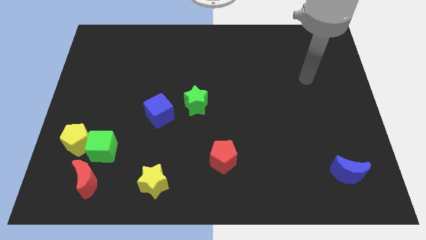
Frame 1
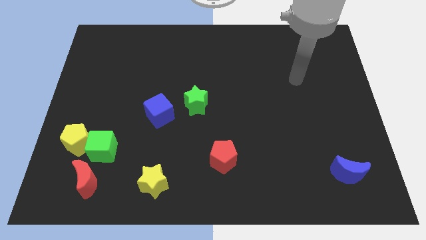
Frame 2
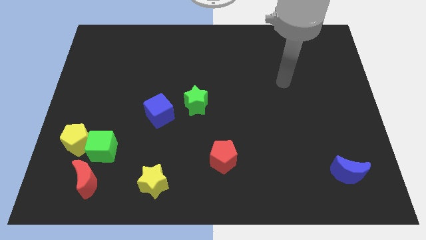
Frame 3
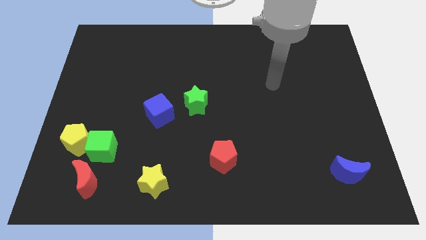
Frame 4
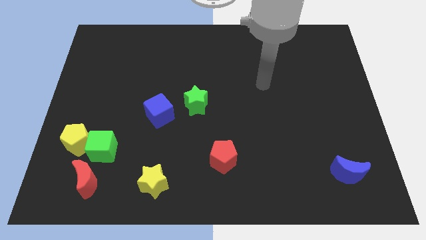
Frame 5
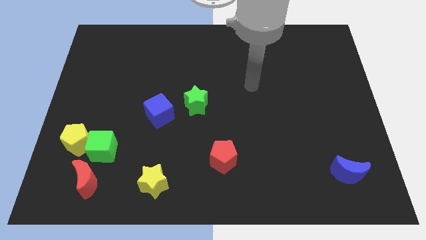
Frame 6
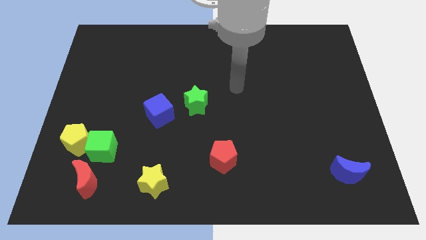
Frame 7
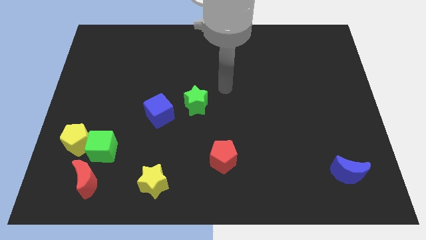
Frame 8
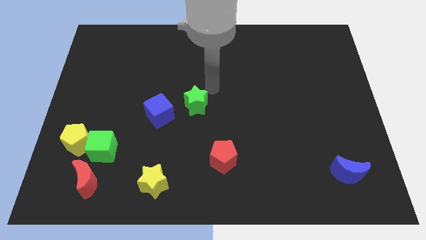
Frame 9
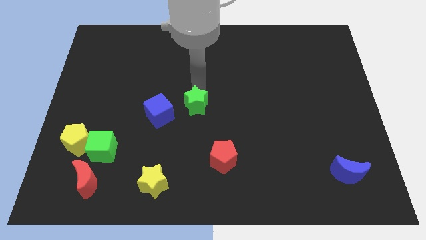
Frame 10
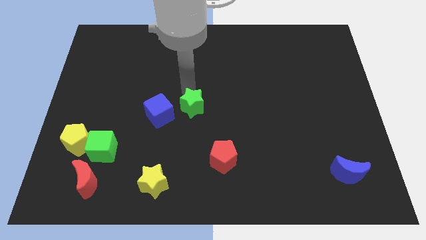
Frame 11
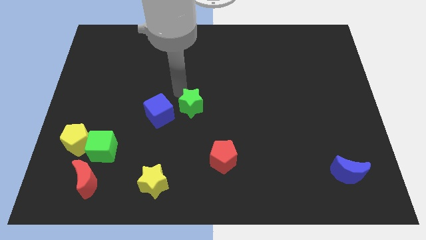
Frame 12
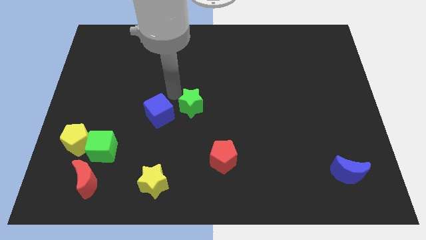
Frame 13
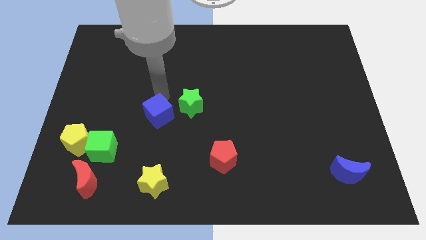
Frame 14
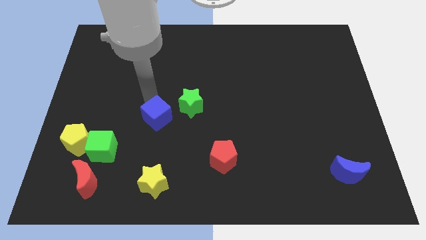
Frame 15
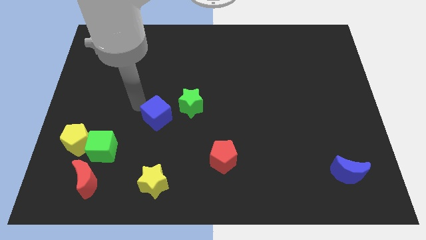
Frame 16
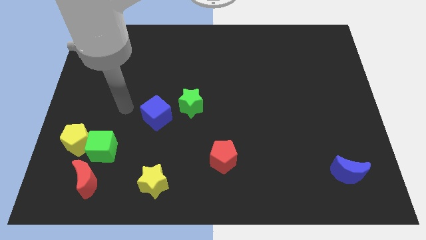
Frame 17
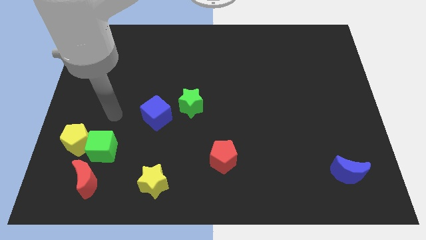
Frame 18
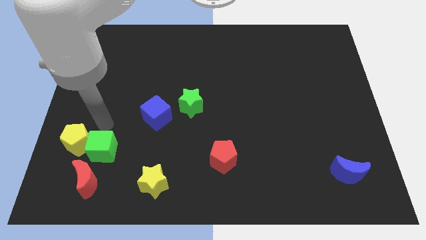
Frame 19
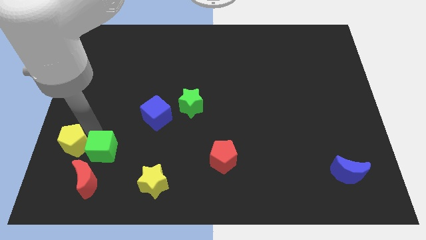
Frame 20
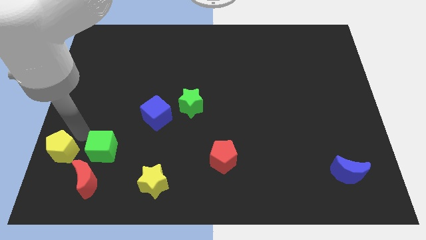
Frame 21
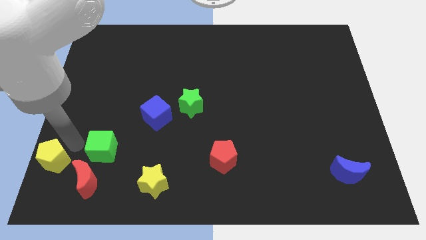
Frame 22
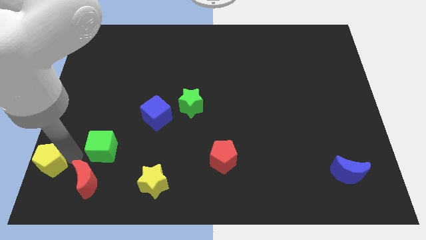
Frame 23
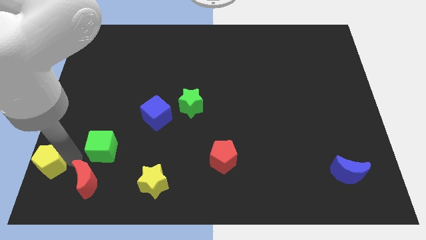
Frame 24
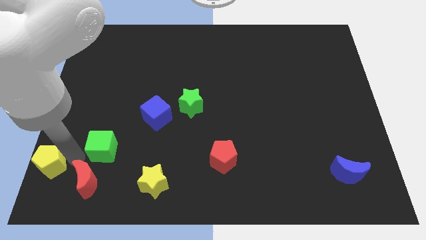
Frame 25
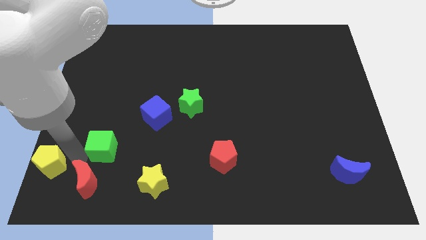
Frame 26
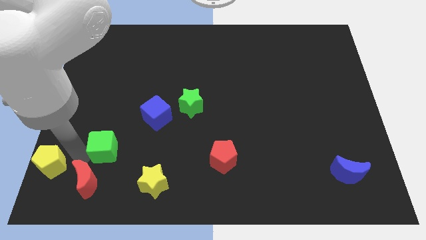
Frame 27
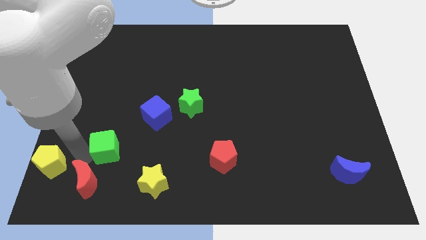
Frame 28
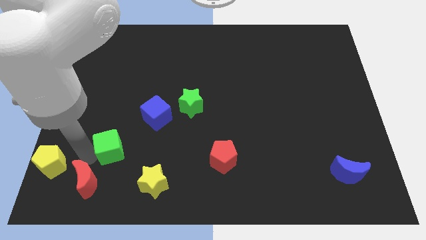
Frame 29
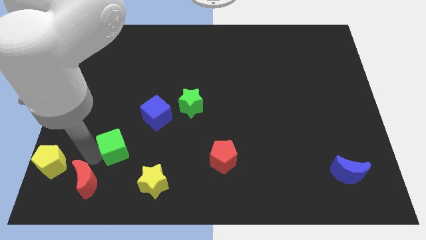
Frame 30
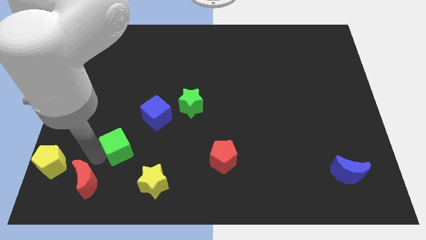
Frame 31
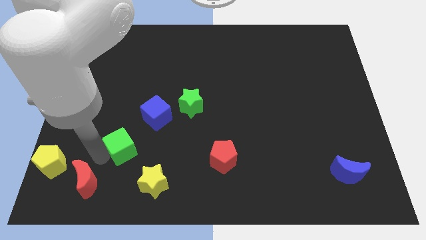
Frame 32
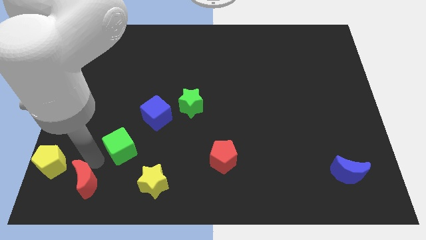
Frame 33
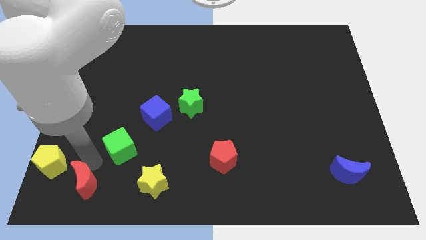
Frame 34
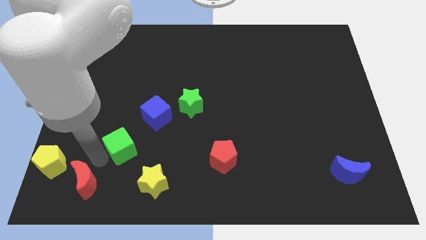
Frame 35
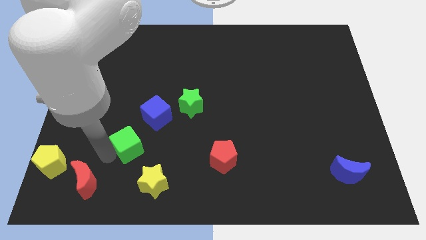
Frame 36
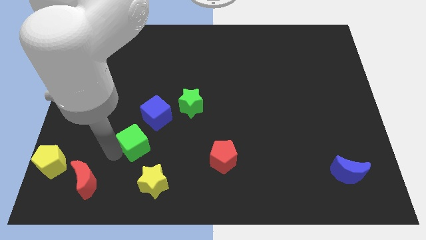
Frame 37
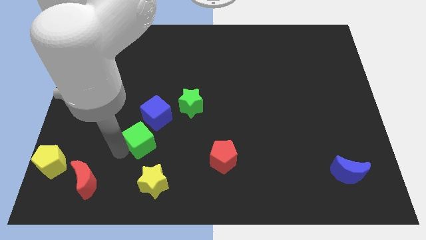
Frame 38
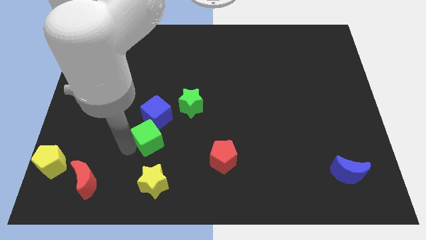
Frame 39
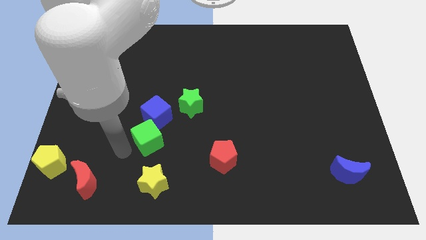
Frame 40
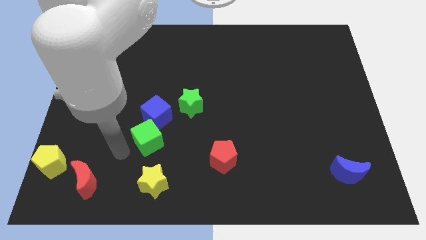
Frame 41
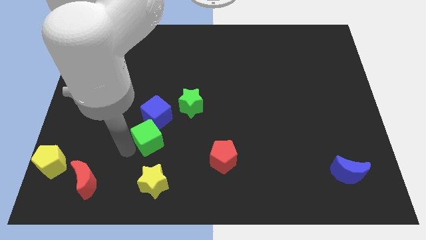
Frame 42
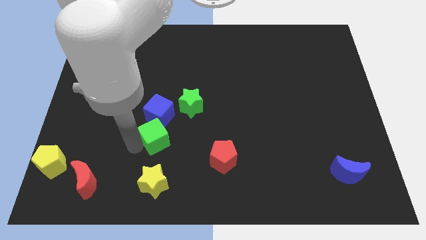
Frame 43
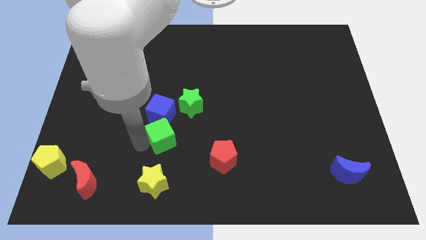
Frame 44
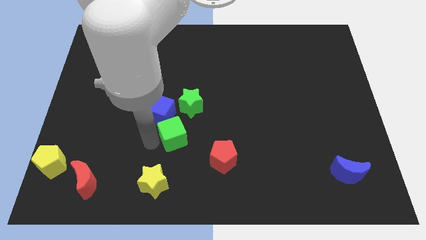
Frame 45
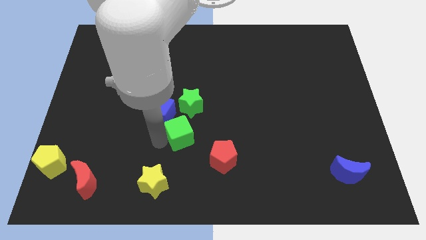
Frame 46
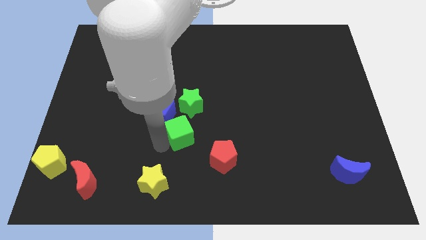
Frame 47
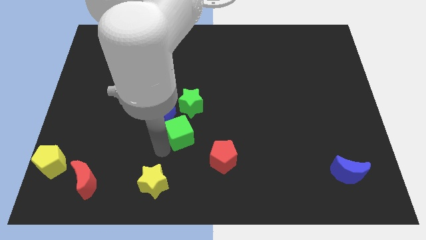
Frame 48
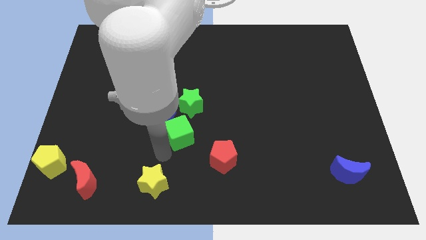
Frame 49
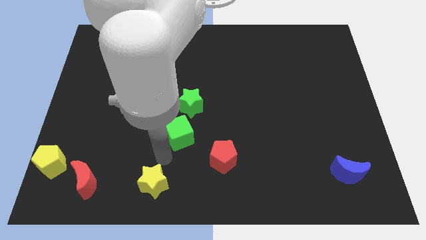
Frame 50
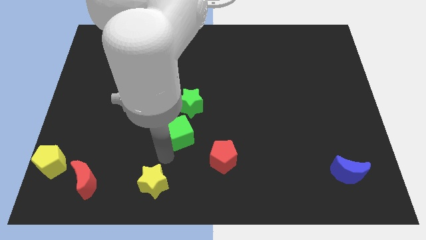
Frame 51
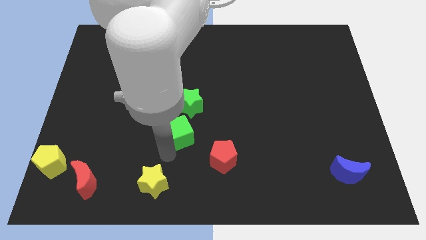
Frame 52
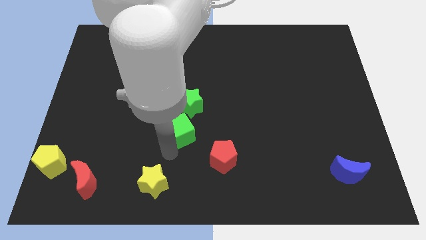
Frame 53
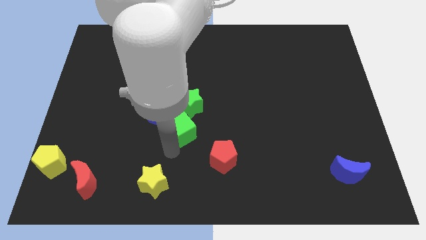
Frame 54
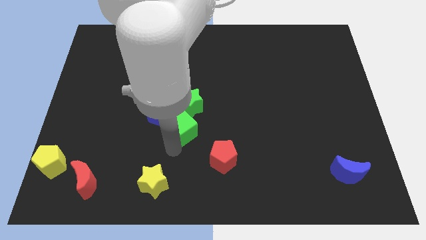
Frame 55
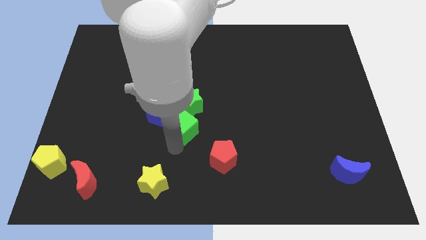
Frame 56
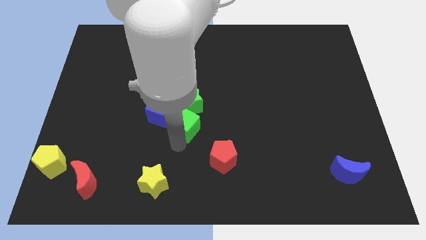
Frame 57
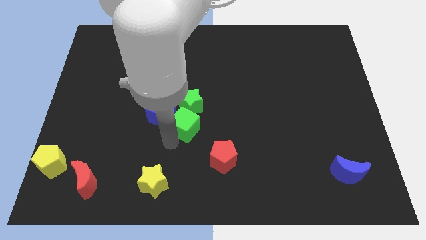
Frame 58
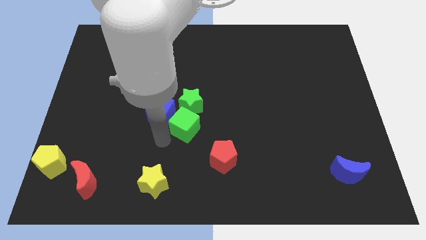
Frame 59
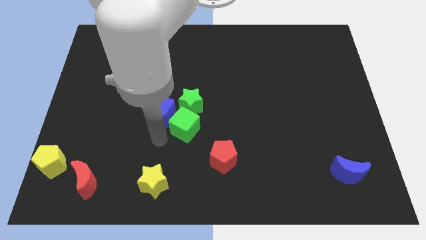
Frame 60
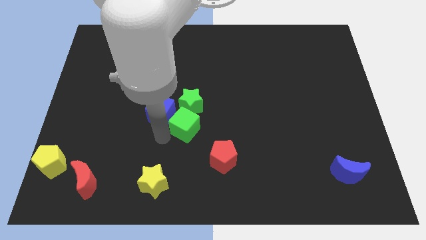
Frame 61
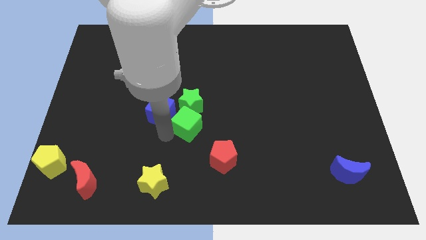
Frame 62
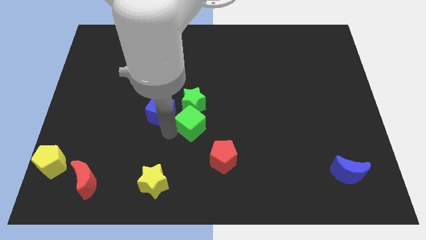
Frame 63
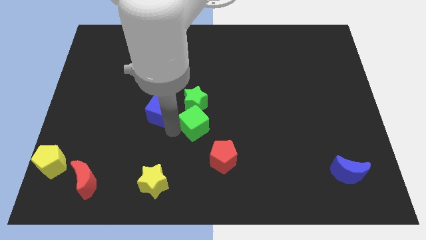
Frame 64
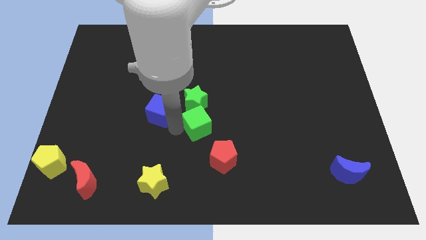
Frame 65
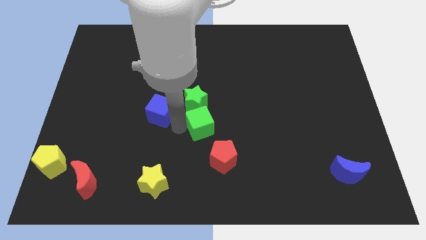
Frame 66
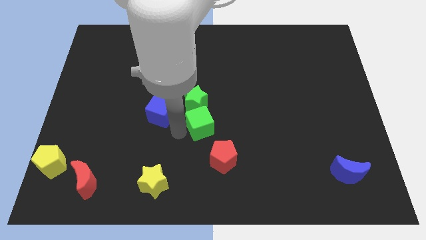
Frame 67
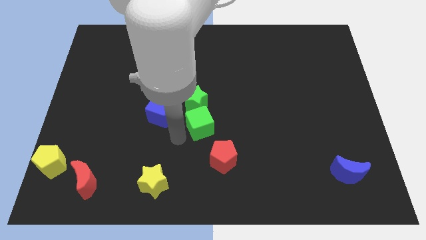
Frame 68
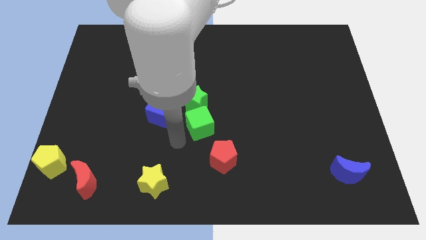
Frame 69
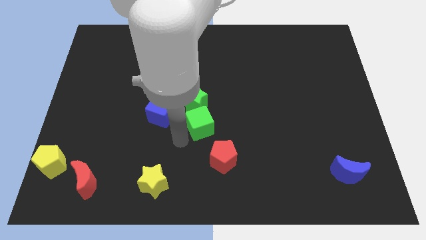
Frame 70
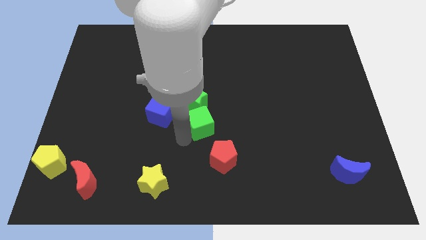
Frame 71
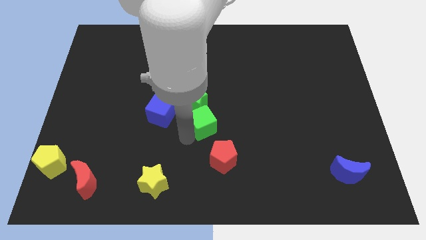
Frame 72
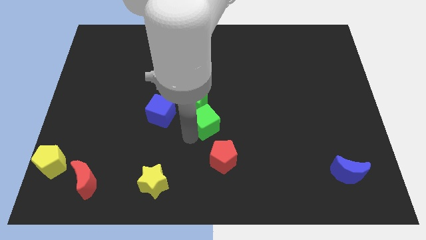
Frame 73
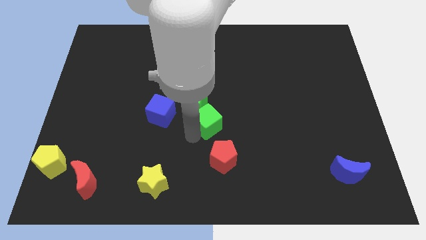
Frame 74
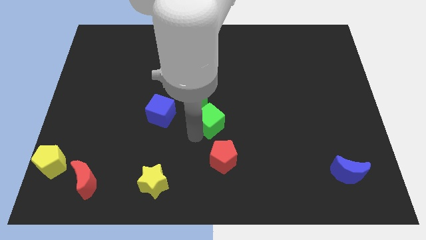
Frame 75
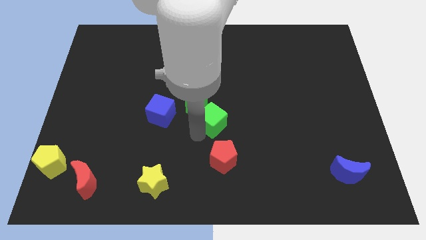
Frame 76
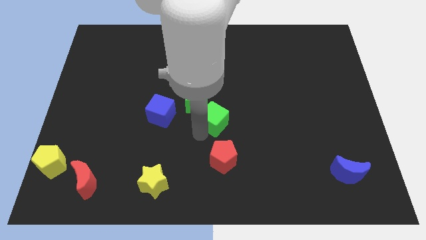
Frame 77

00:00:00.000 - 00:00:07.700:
move the green cube to the right side of the green star

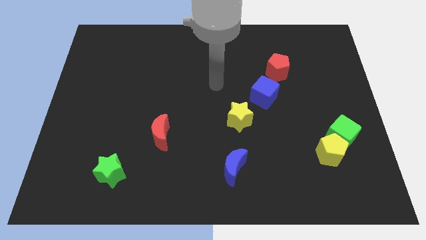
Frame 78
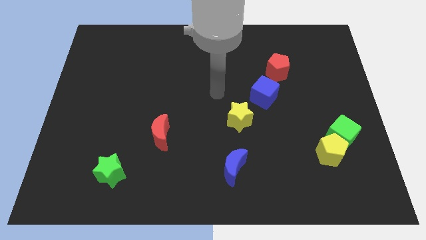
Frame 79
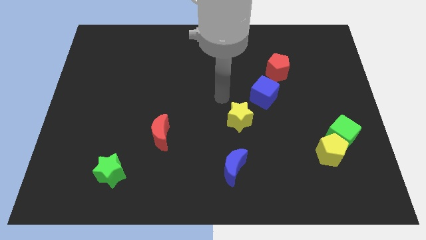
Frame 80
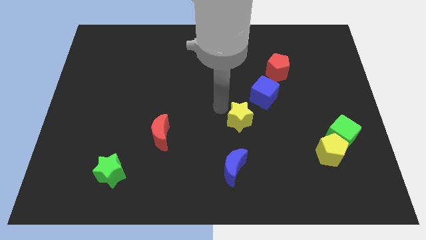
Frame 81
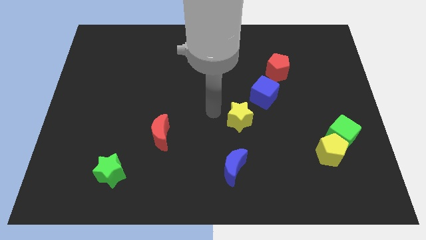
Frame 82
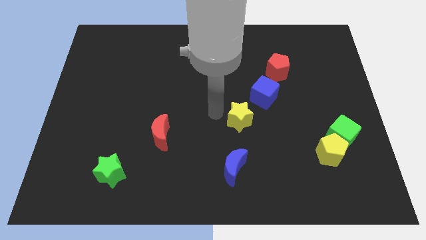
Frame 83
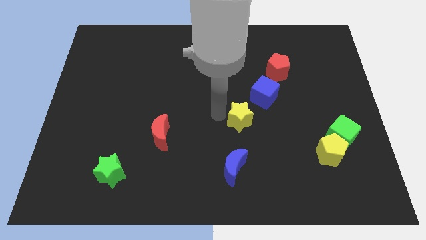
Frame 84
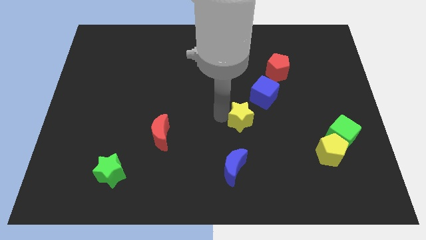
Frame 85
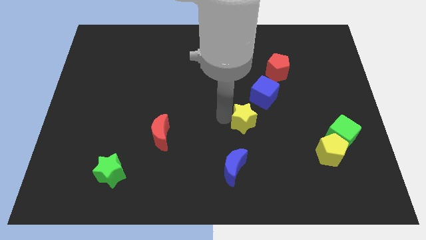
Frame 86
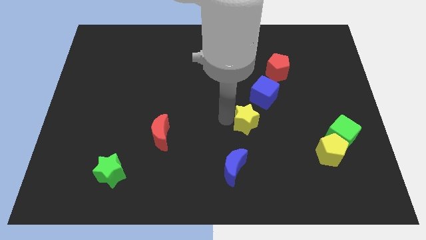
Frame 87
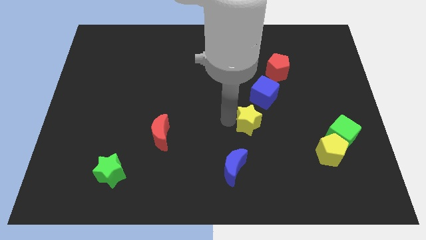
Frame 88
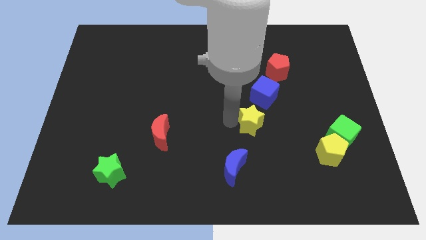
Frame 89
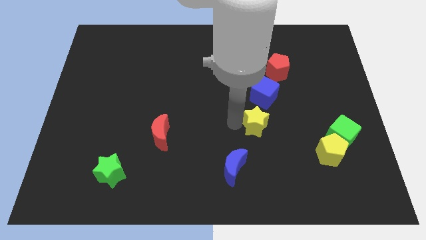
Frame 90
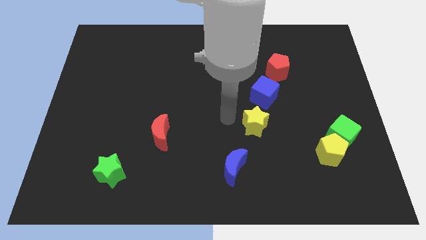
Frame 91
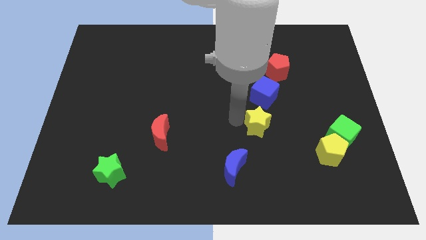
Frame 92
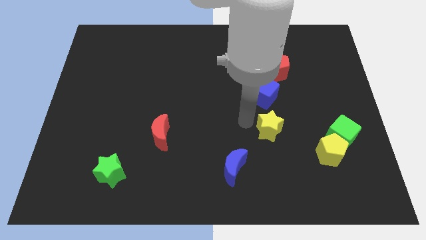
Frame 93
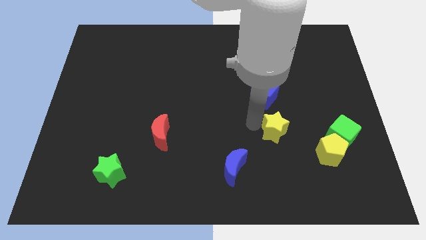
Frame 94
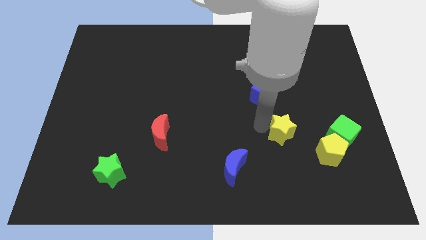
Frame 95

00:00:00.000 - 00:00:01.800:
push the yellow star diagonally up and to the left of the yellow pentagon
